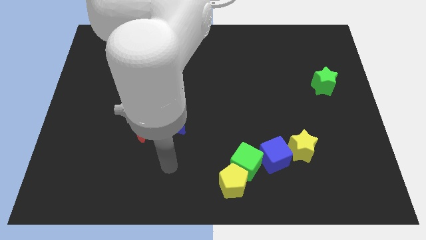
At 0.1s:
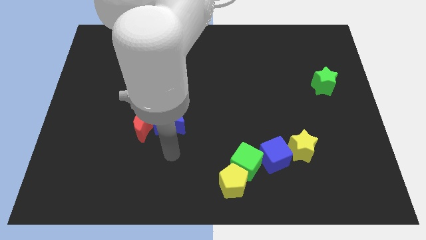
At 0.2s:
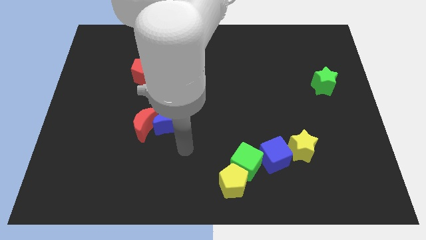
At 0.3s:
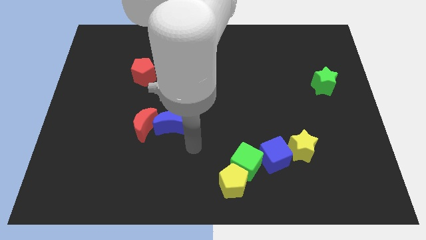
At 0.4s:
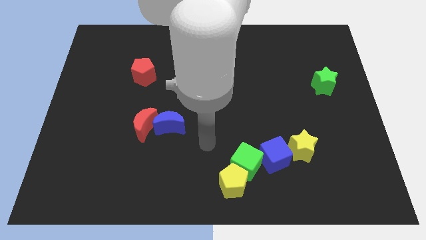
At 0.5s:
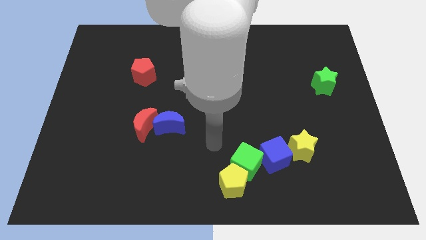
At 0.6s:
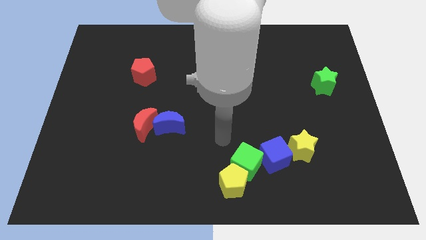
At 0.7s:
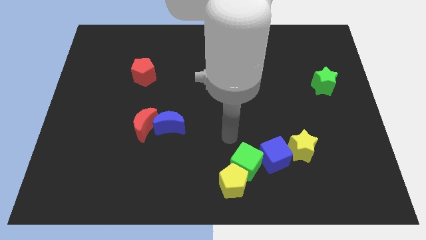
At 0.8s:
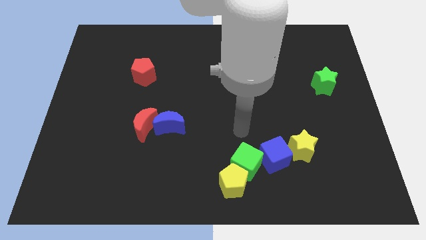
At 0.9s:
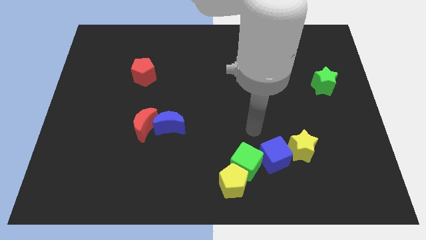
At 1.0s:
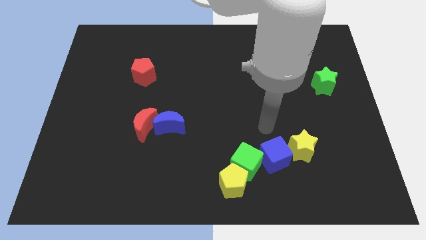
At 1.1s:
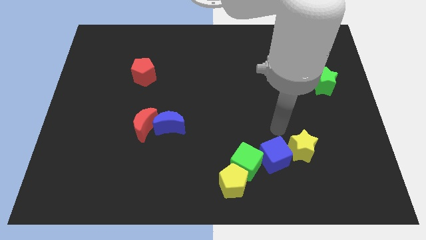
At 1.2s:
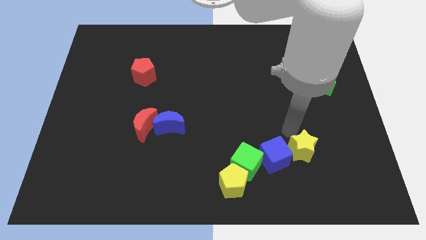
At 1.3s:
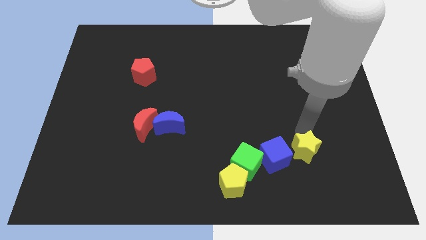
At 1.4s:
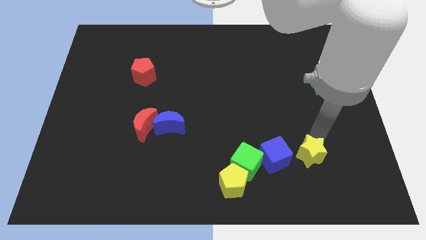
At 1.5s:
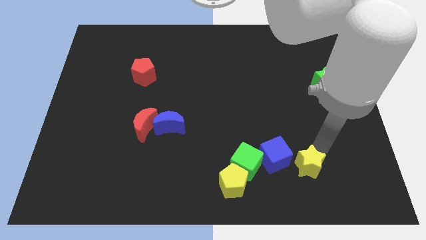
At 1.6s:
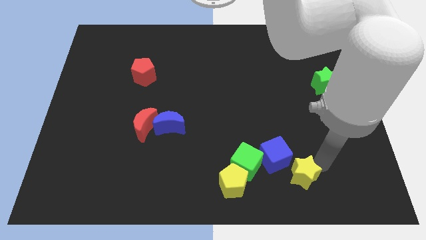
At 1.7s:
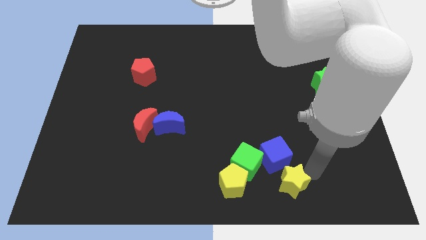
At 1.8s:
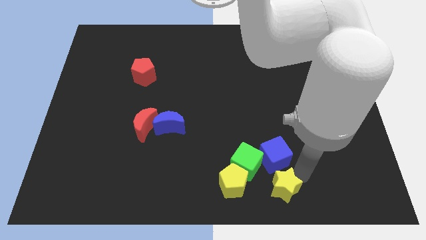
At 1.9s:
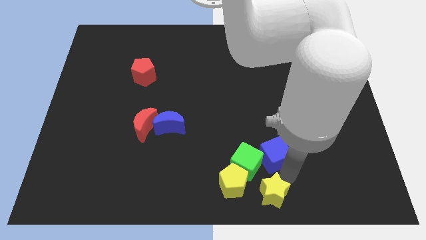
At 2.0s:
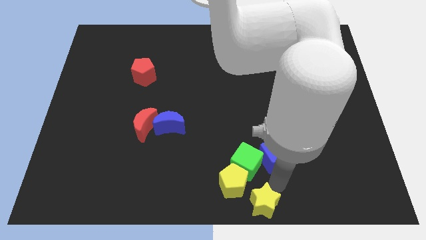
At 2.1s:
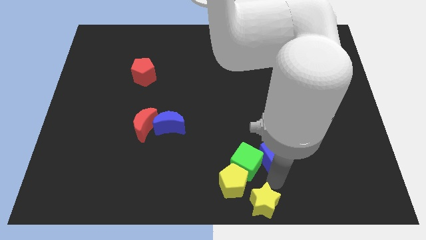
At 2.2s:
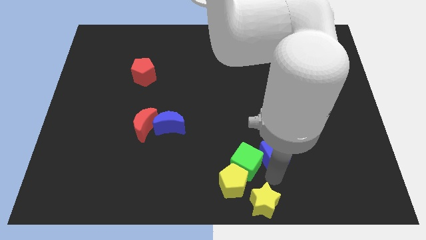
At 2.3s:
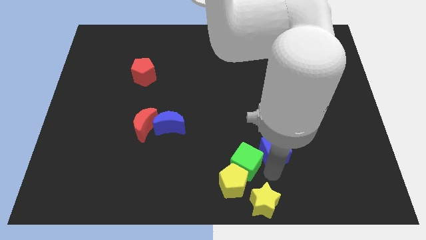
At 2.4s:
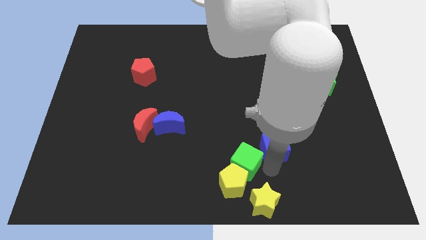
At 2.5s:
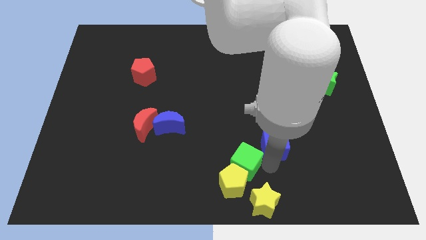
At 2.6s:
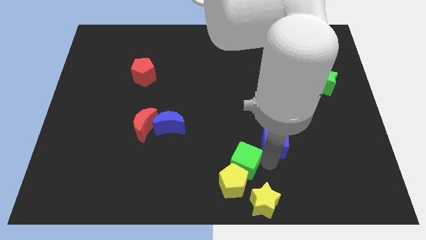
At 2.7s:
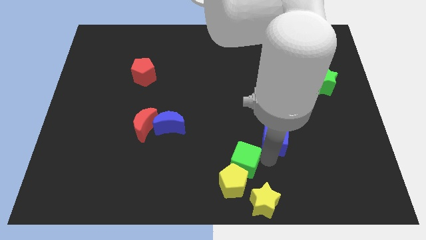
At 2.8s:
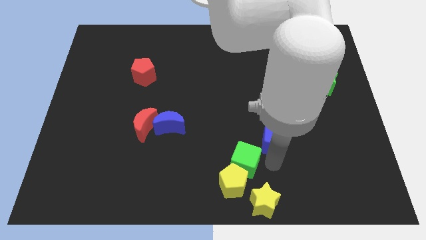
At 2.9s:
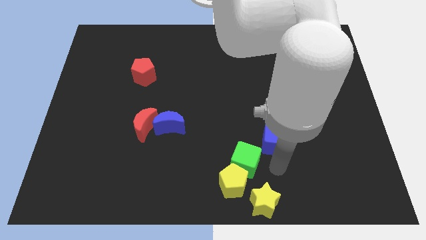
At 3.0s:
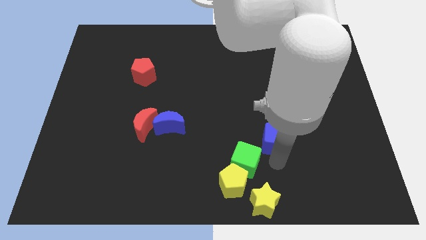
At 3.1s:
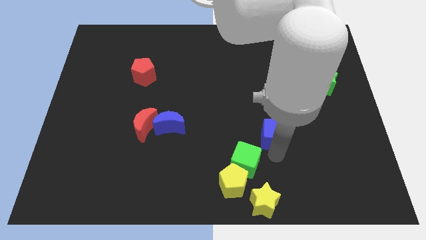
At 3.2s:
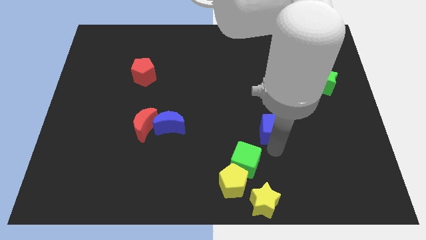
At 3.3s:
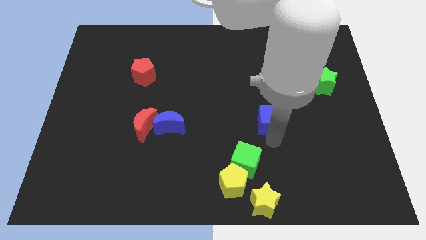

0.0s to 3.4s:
push the blue cube somewhat up

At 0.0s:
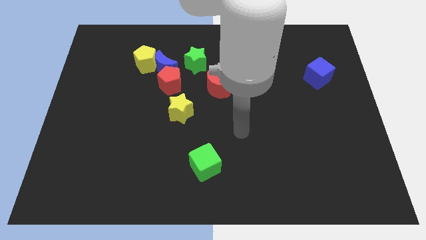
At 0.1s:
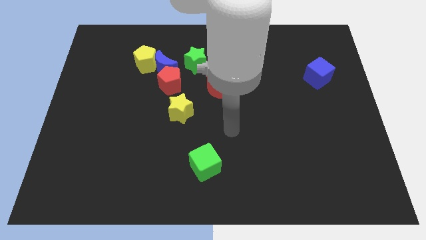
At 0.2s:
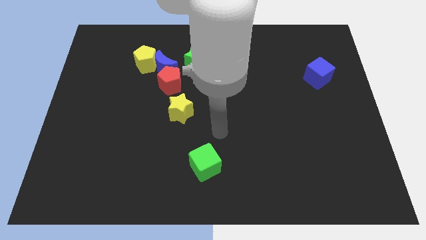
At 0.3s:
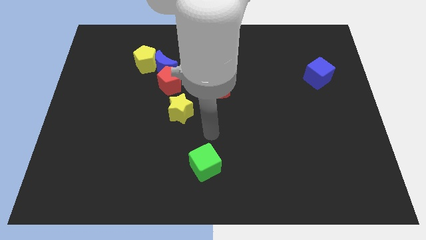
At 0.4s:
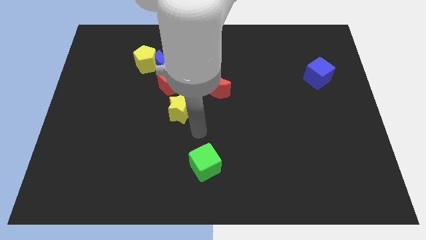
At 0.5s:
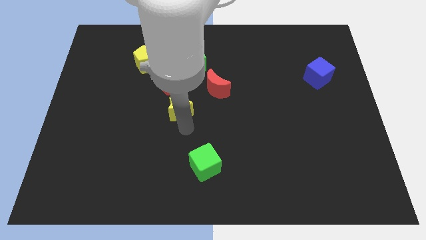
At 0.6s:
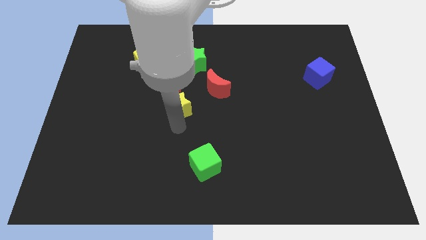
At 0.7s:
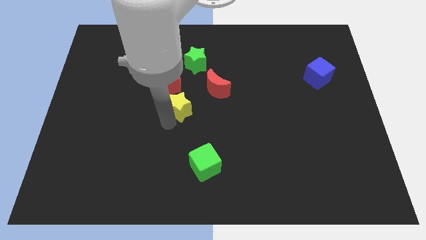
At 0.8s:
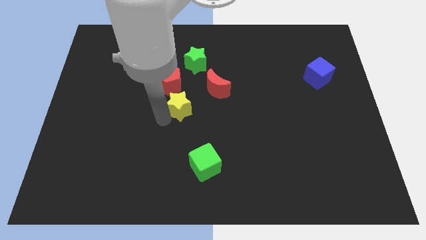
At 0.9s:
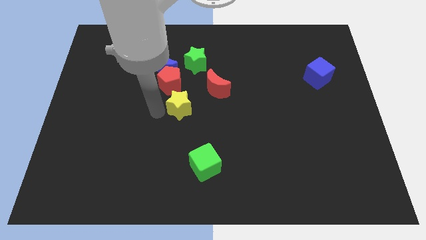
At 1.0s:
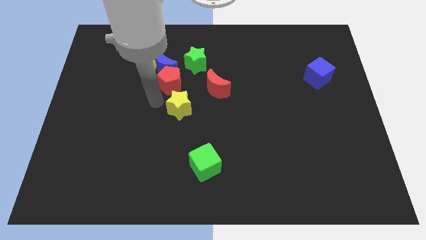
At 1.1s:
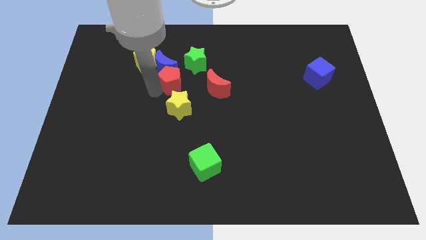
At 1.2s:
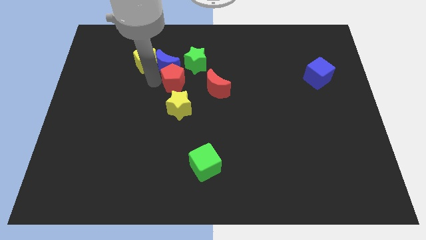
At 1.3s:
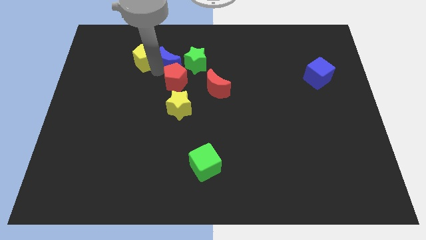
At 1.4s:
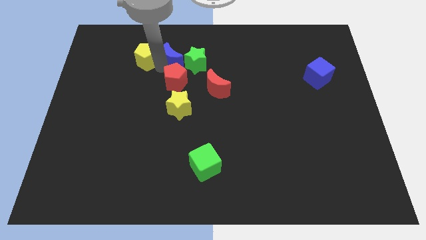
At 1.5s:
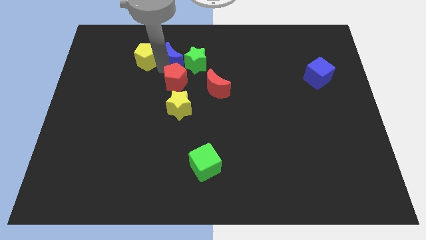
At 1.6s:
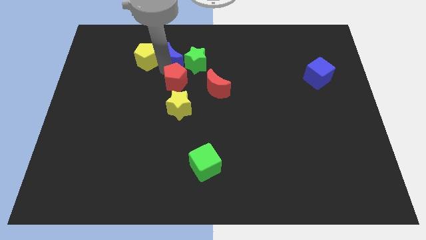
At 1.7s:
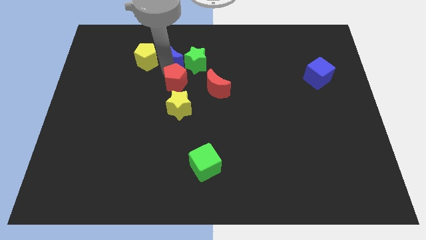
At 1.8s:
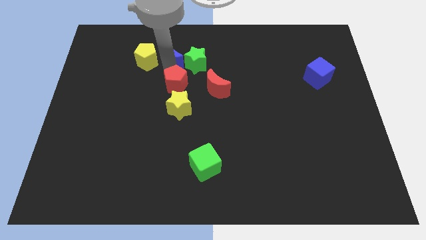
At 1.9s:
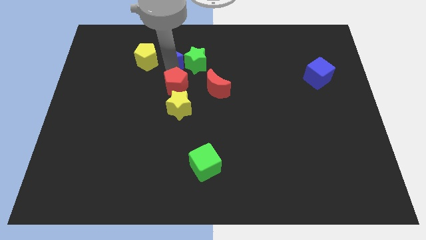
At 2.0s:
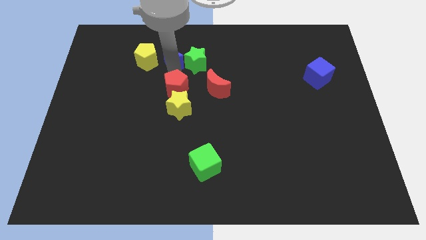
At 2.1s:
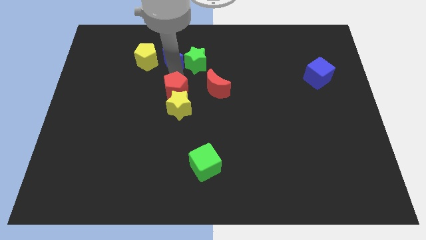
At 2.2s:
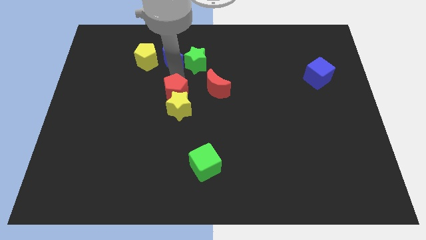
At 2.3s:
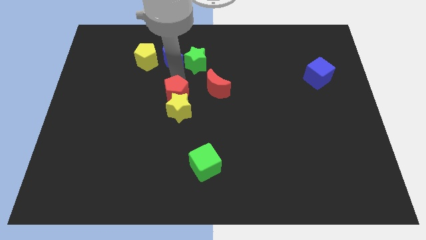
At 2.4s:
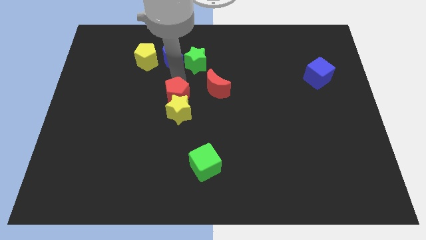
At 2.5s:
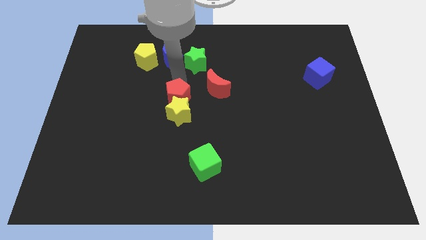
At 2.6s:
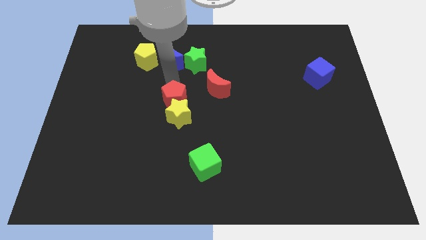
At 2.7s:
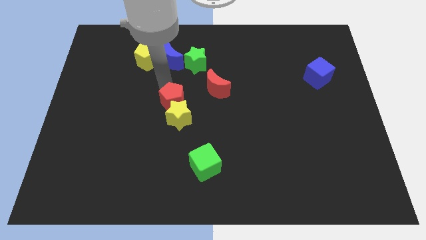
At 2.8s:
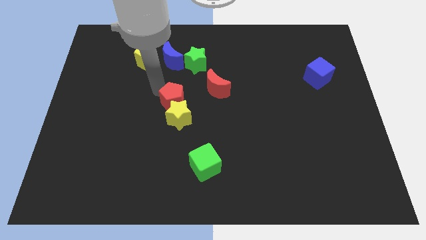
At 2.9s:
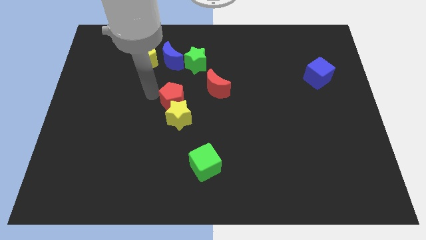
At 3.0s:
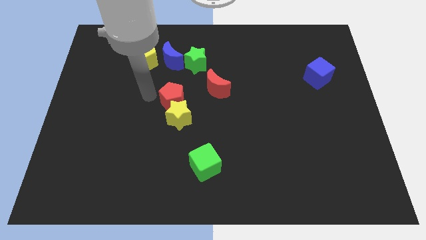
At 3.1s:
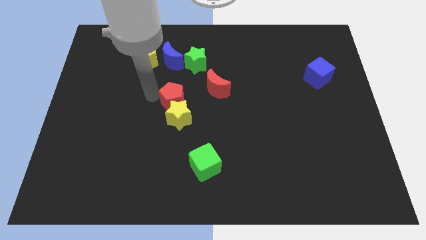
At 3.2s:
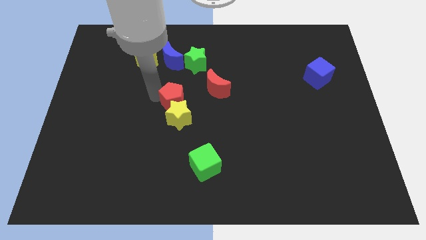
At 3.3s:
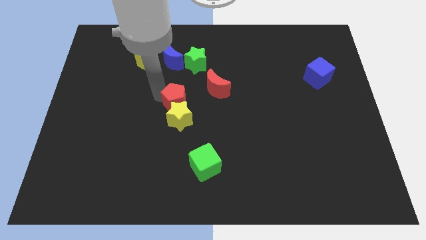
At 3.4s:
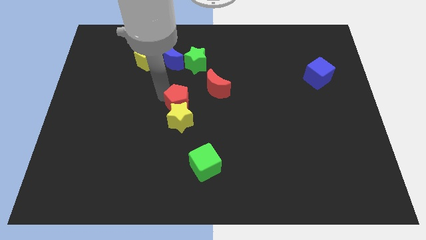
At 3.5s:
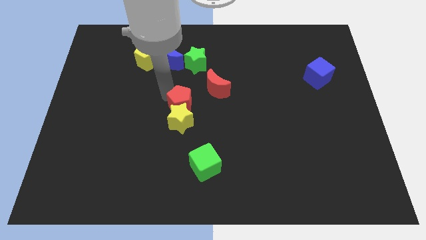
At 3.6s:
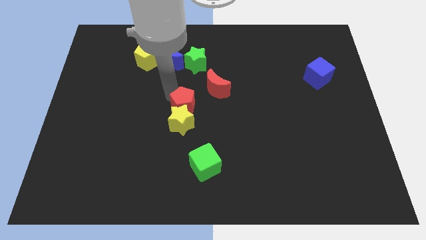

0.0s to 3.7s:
push the red pentagon a little bit down and to the right diagonally

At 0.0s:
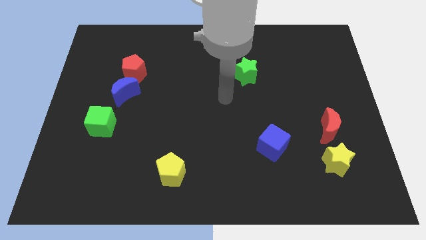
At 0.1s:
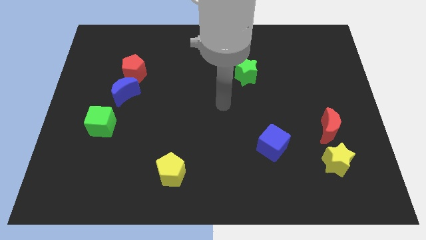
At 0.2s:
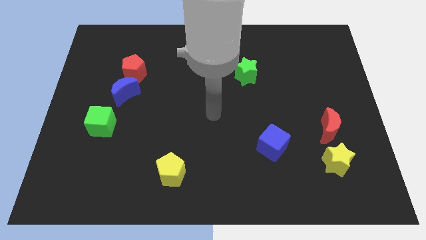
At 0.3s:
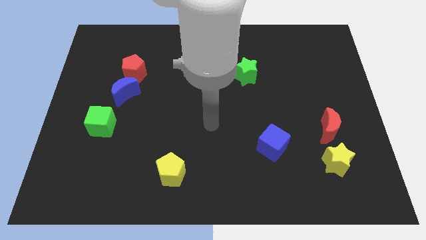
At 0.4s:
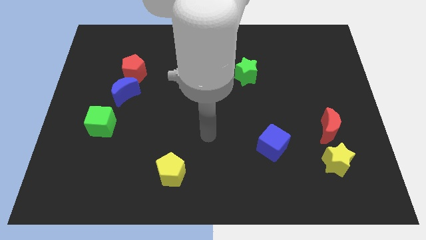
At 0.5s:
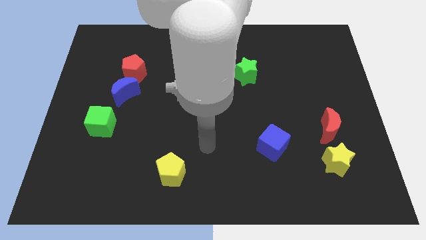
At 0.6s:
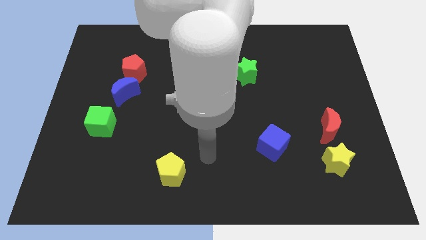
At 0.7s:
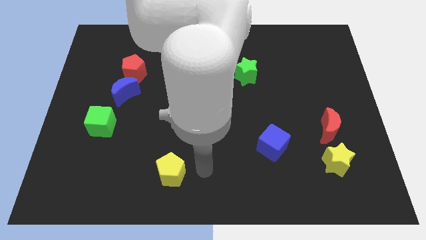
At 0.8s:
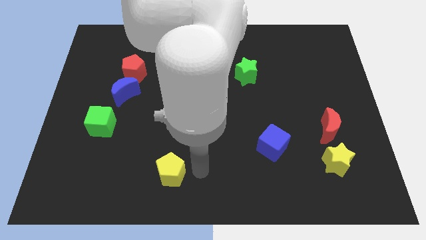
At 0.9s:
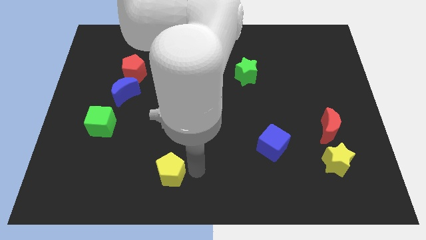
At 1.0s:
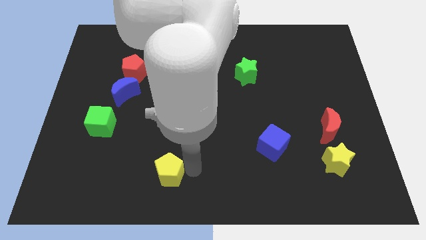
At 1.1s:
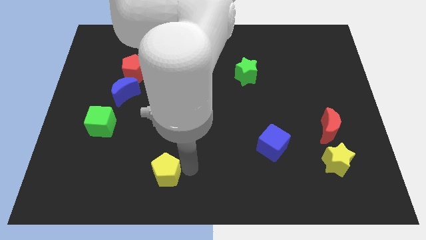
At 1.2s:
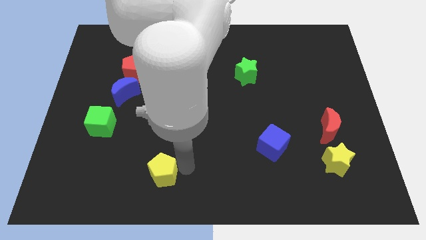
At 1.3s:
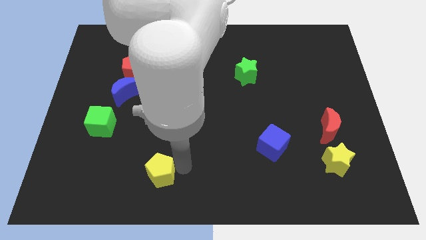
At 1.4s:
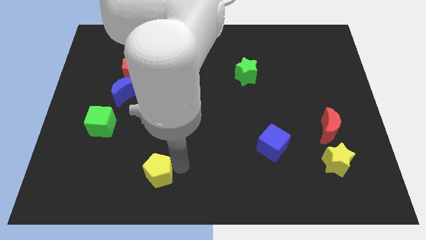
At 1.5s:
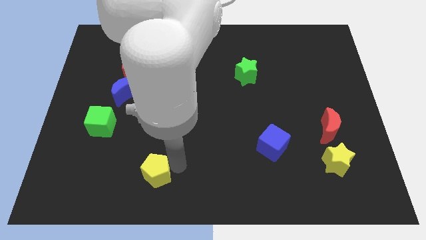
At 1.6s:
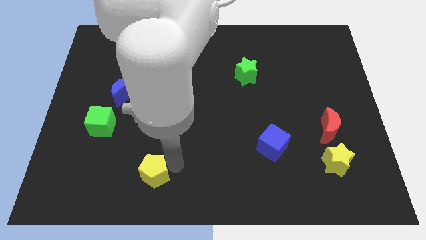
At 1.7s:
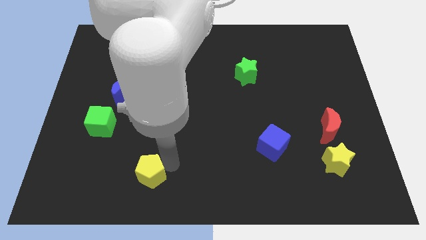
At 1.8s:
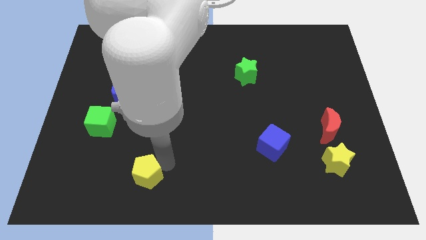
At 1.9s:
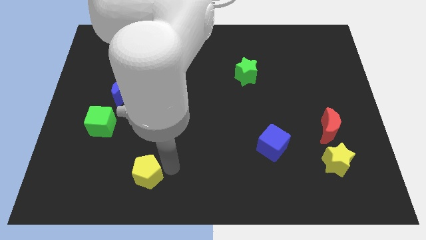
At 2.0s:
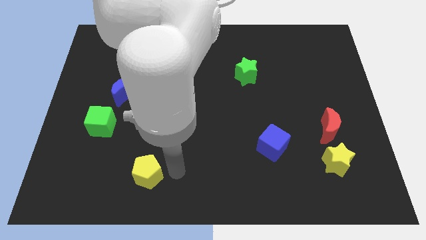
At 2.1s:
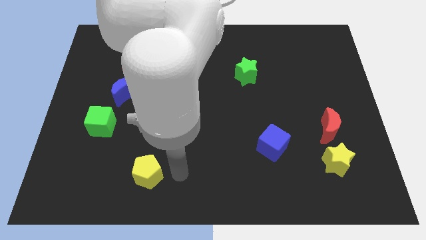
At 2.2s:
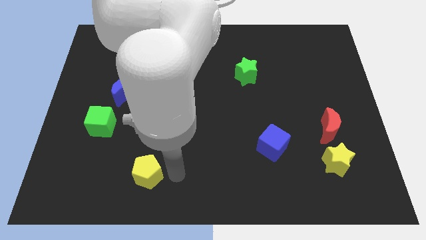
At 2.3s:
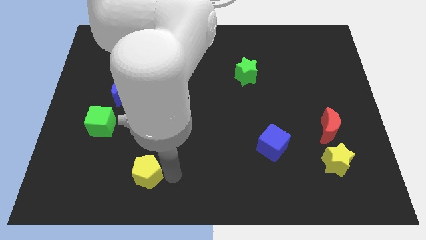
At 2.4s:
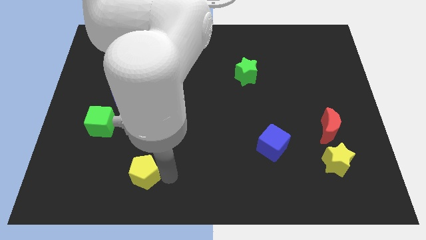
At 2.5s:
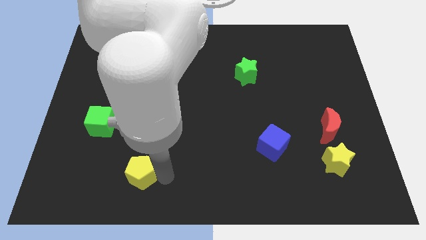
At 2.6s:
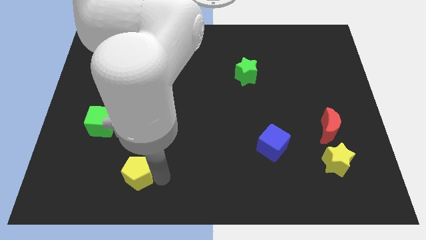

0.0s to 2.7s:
move the yellow pentagon somewhat to the left
